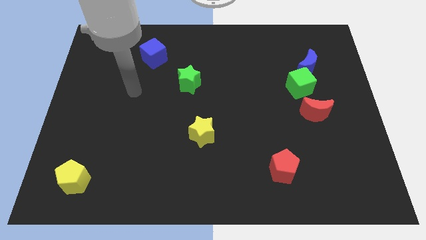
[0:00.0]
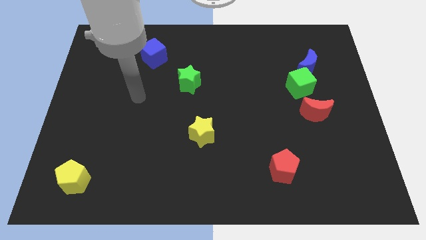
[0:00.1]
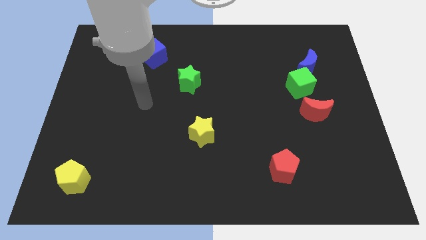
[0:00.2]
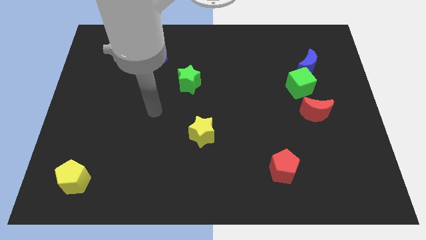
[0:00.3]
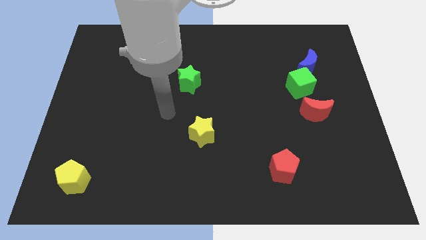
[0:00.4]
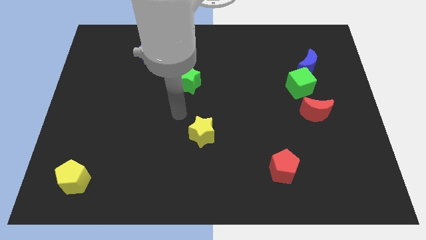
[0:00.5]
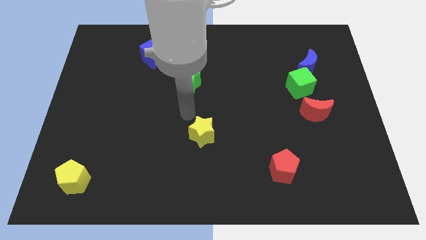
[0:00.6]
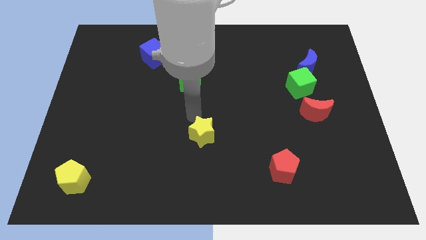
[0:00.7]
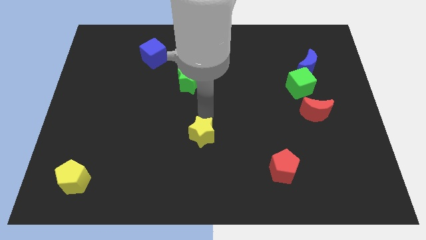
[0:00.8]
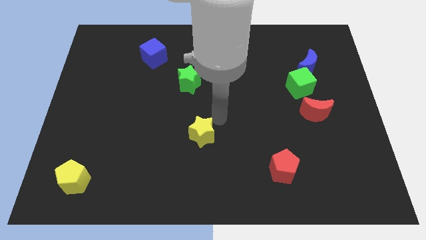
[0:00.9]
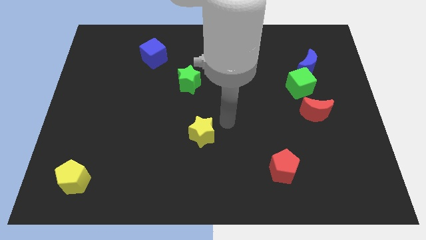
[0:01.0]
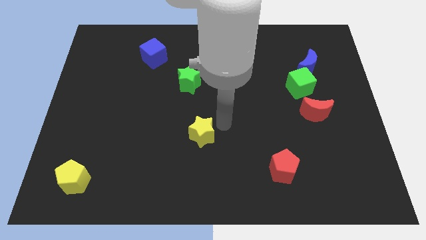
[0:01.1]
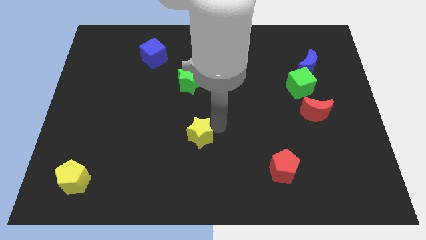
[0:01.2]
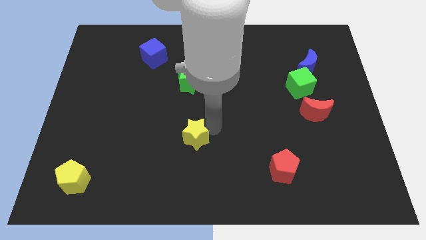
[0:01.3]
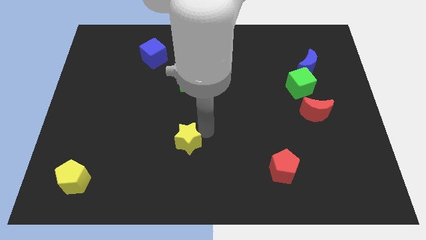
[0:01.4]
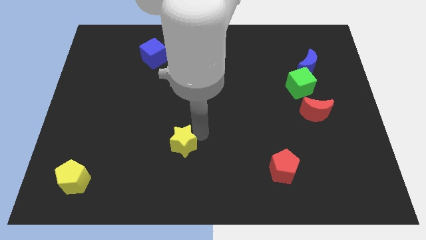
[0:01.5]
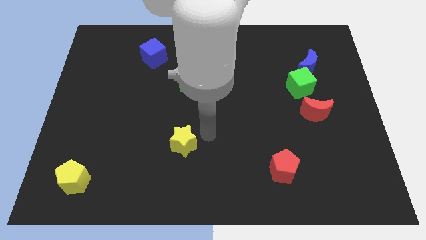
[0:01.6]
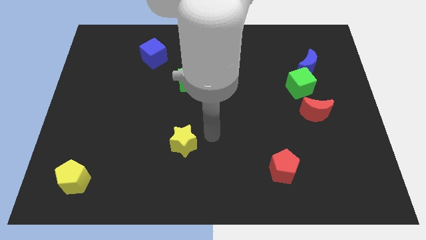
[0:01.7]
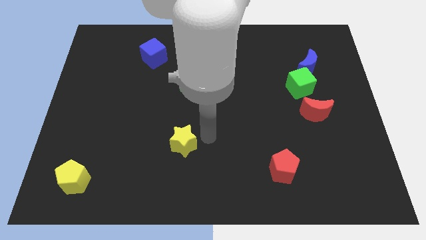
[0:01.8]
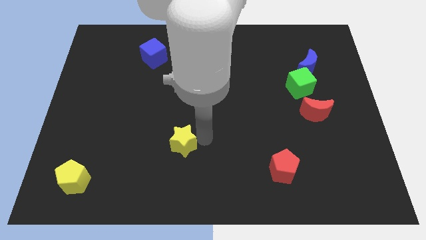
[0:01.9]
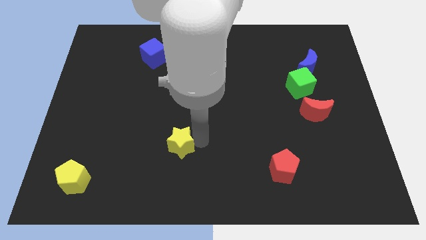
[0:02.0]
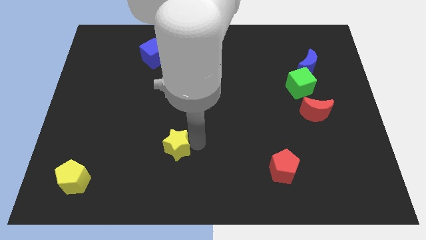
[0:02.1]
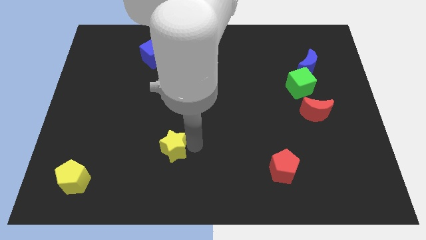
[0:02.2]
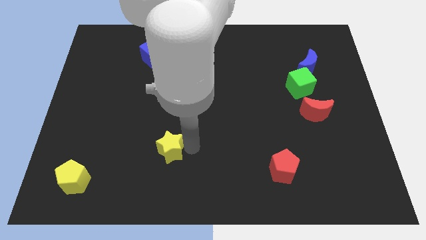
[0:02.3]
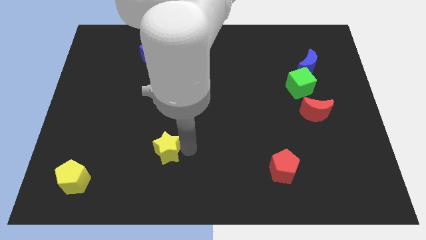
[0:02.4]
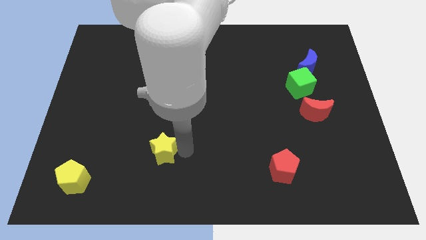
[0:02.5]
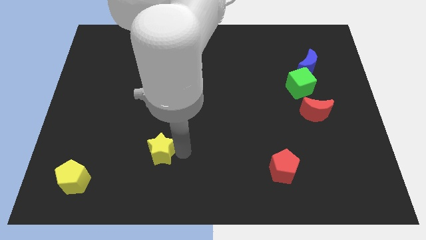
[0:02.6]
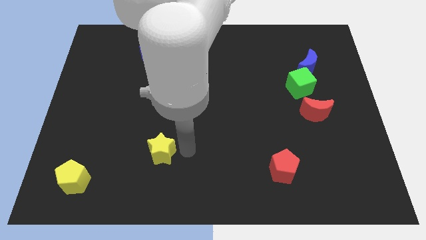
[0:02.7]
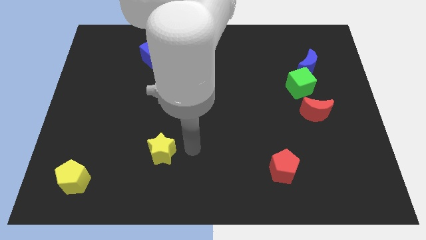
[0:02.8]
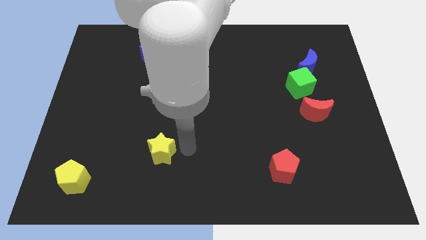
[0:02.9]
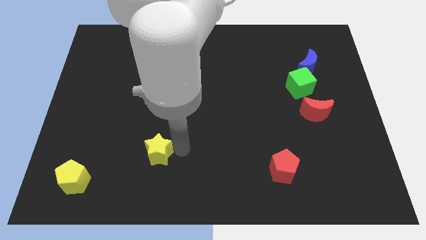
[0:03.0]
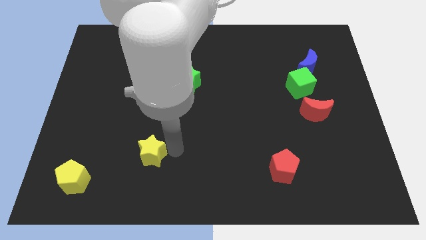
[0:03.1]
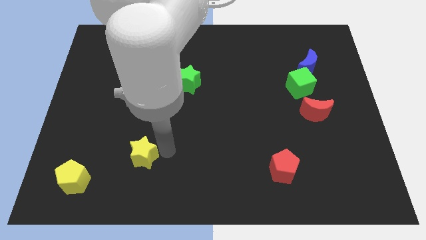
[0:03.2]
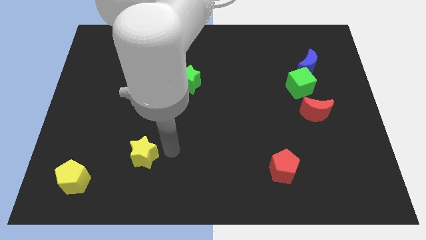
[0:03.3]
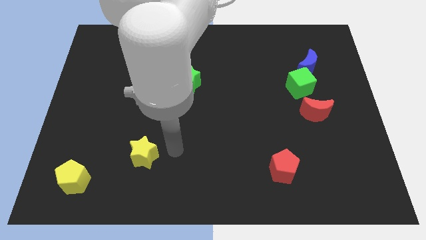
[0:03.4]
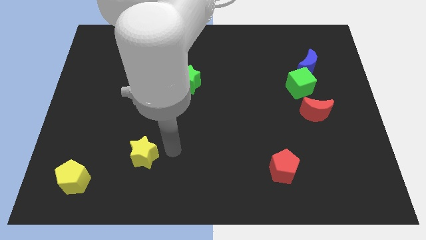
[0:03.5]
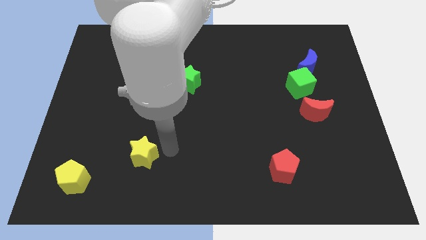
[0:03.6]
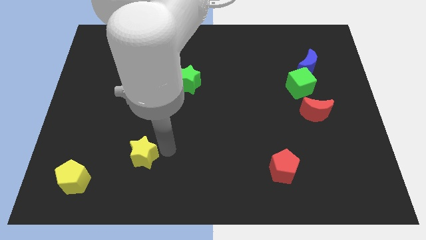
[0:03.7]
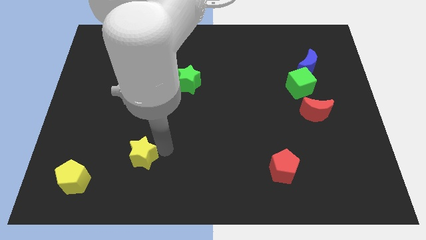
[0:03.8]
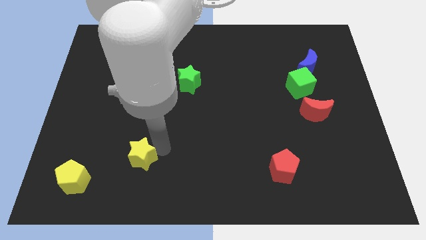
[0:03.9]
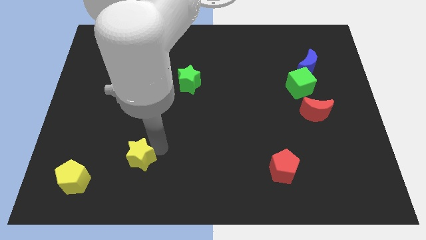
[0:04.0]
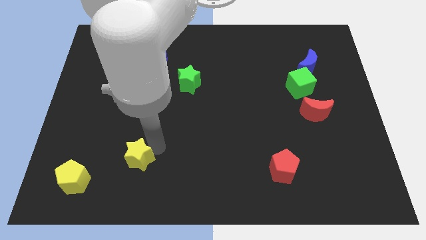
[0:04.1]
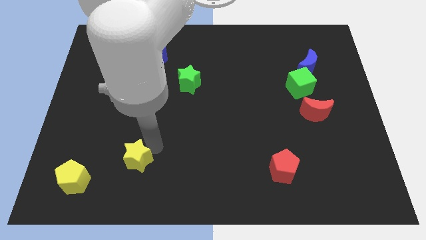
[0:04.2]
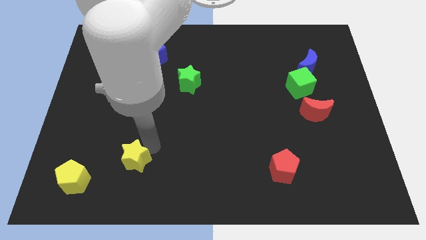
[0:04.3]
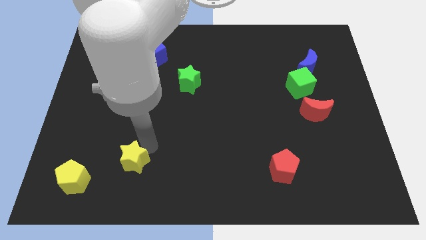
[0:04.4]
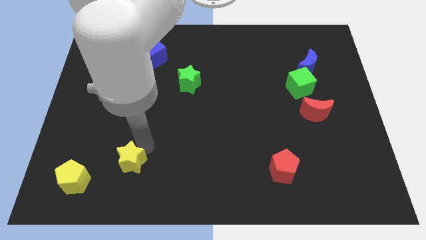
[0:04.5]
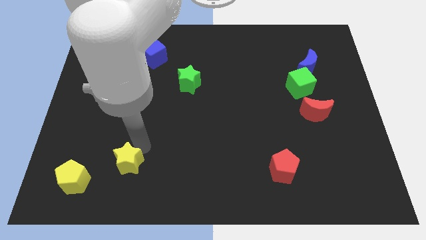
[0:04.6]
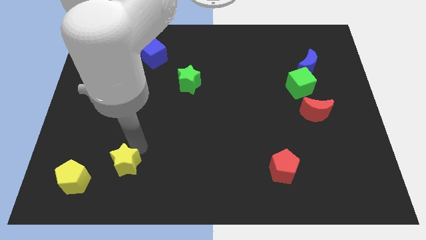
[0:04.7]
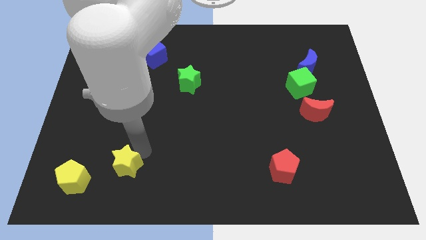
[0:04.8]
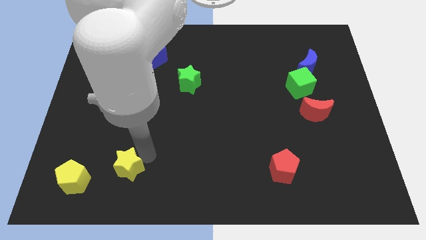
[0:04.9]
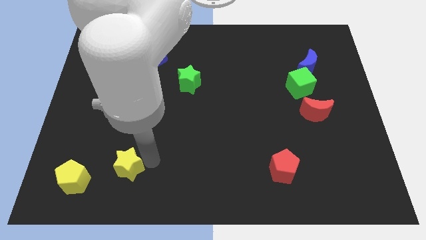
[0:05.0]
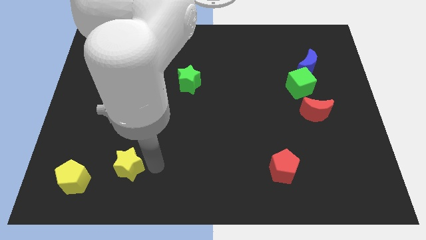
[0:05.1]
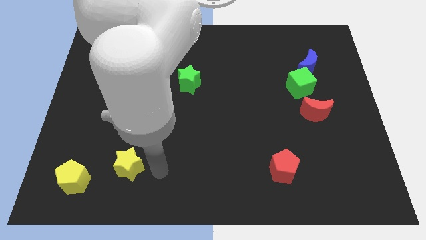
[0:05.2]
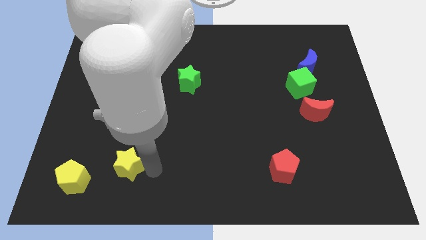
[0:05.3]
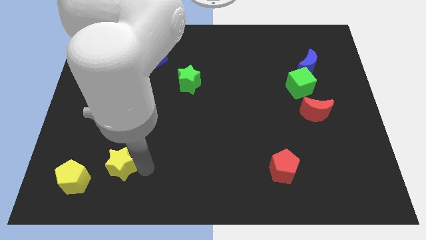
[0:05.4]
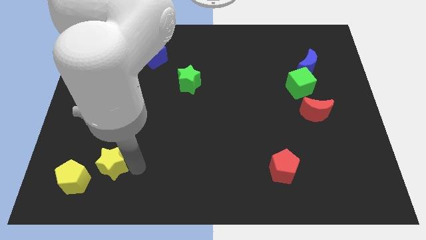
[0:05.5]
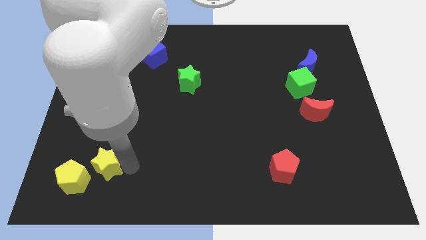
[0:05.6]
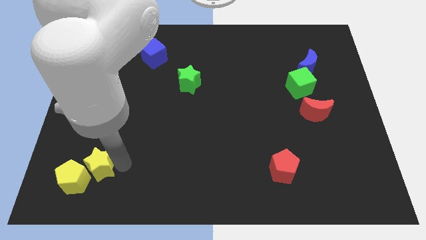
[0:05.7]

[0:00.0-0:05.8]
put the yellow star close to the yellow pentagon

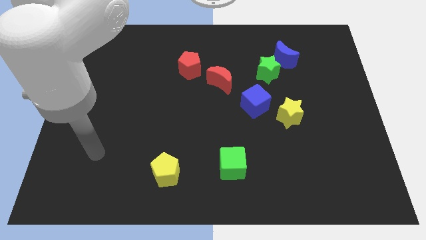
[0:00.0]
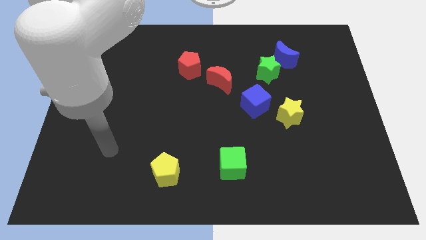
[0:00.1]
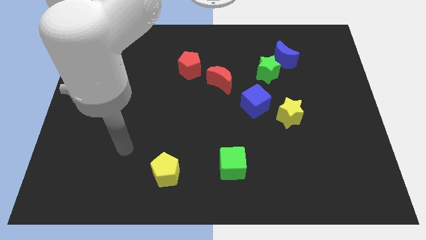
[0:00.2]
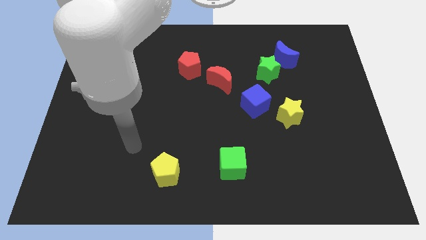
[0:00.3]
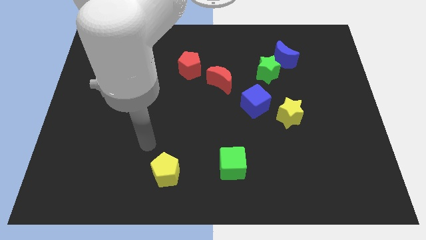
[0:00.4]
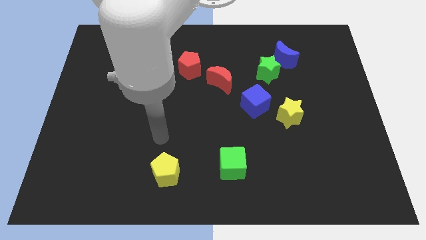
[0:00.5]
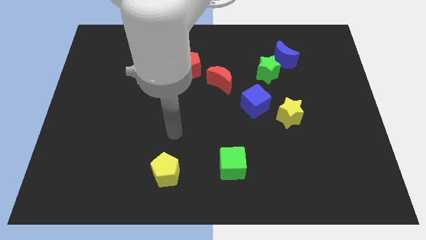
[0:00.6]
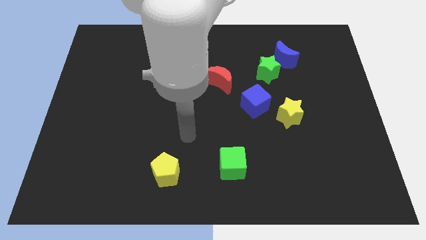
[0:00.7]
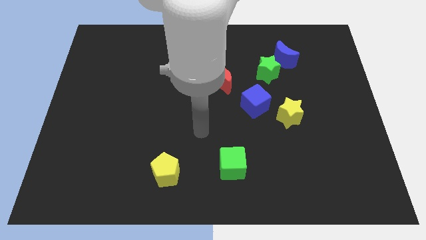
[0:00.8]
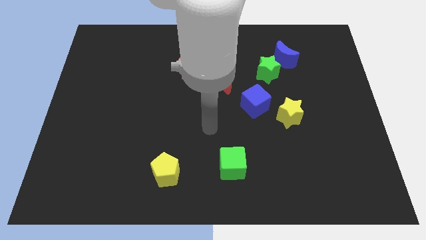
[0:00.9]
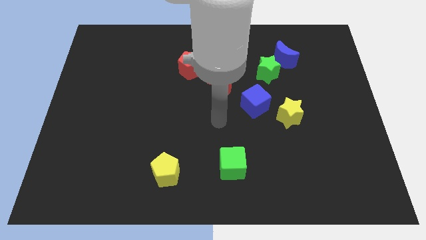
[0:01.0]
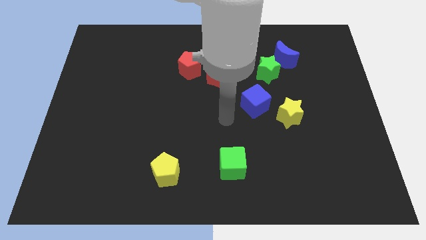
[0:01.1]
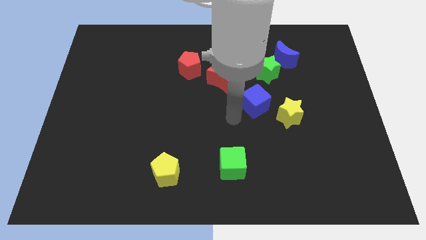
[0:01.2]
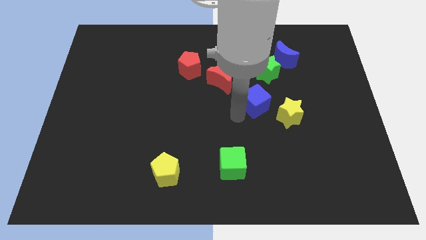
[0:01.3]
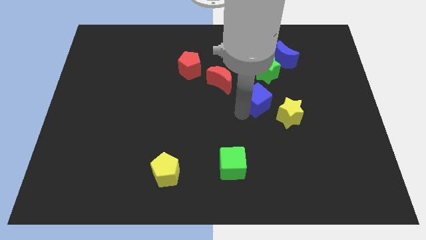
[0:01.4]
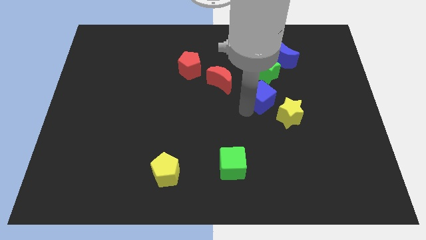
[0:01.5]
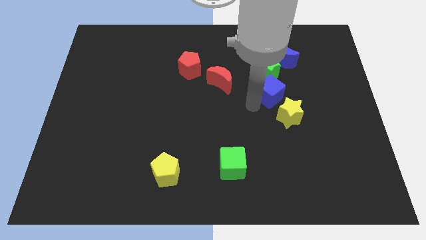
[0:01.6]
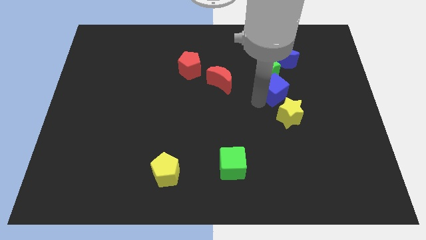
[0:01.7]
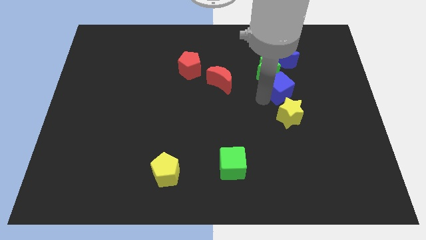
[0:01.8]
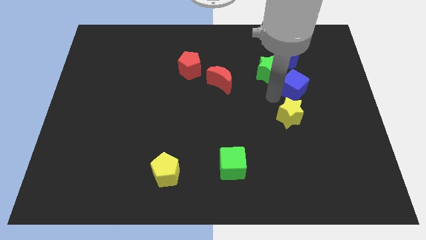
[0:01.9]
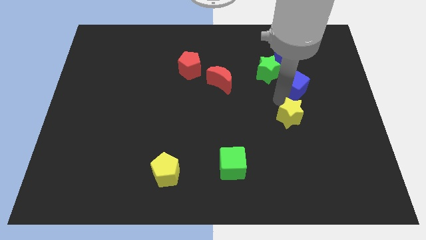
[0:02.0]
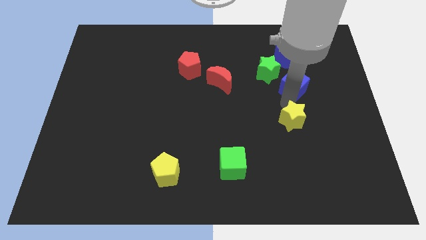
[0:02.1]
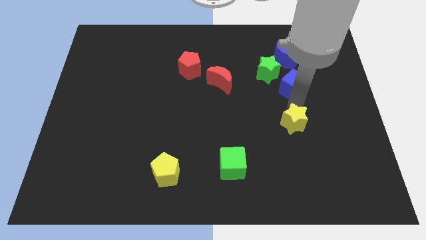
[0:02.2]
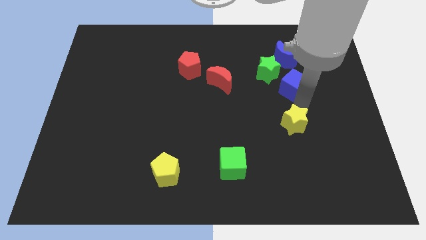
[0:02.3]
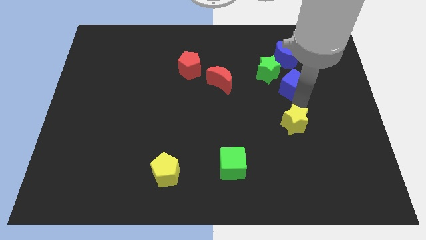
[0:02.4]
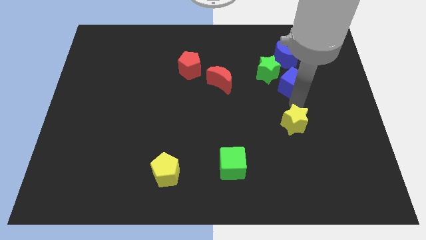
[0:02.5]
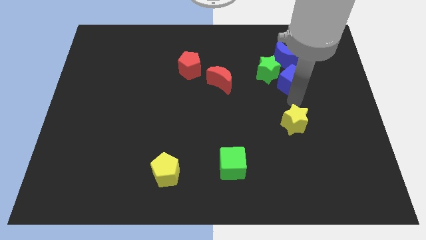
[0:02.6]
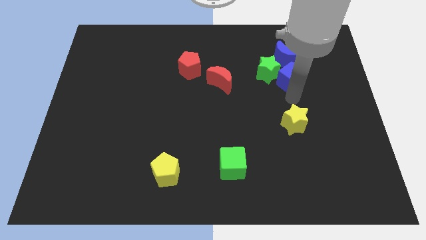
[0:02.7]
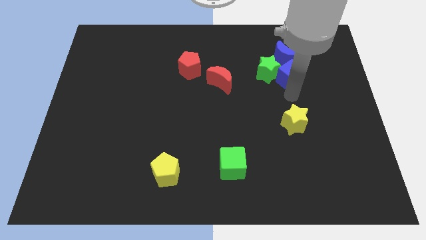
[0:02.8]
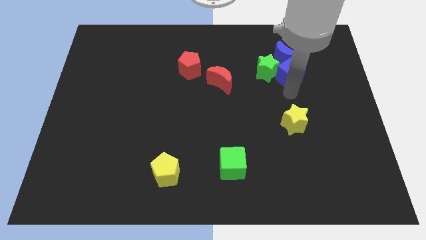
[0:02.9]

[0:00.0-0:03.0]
put the blue cube towards the blue moon
